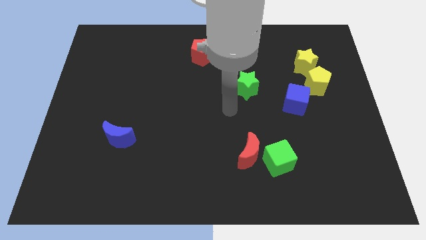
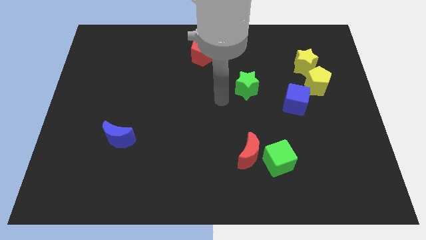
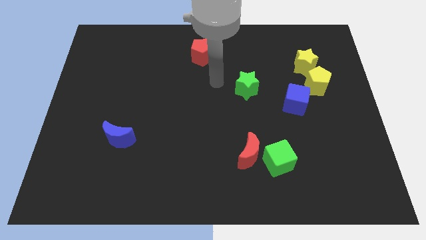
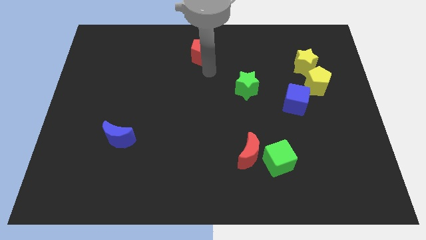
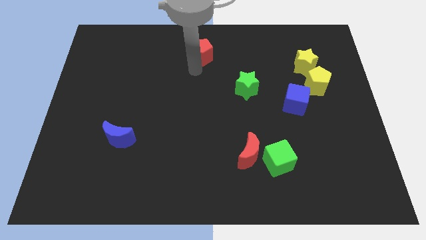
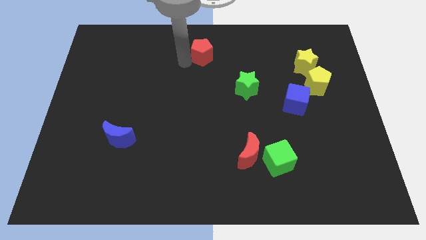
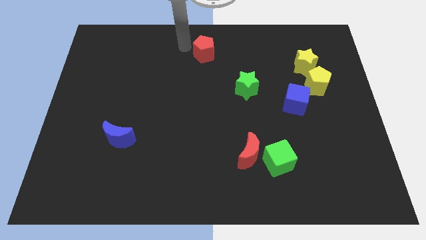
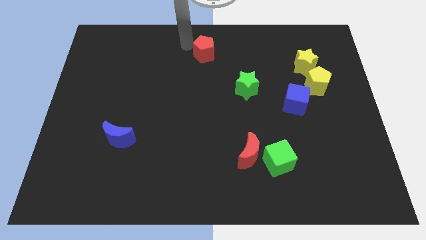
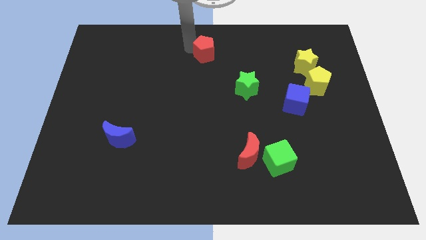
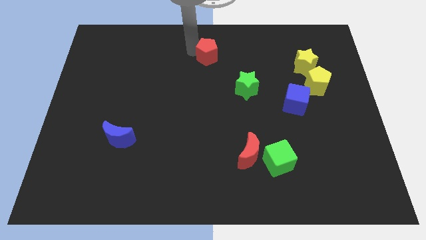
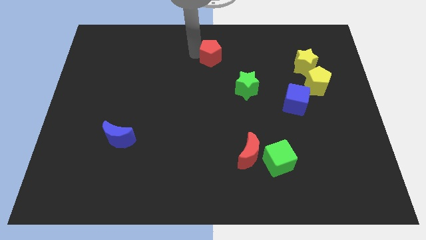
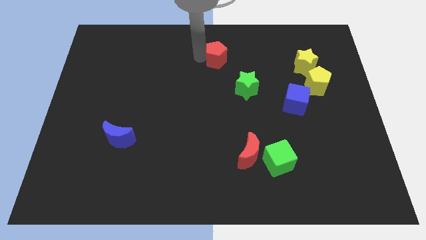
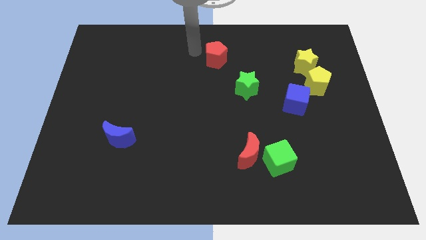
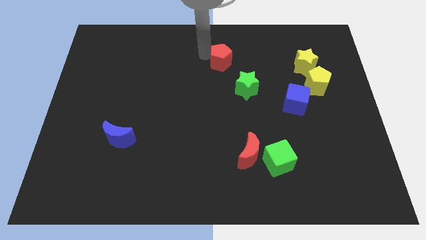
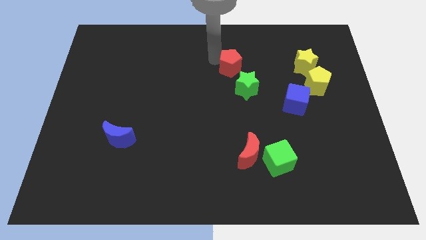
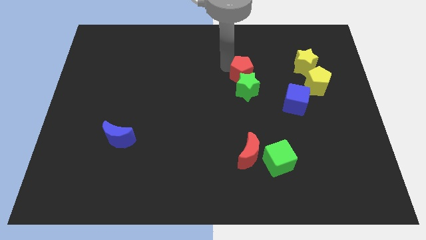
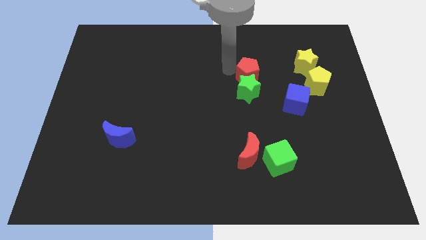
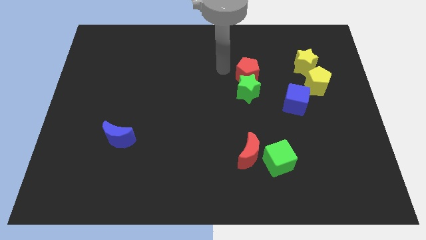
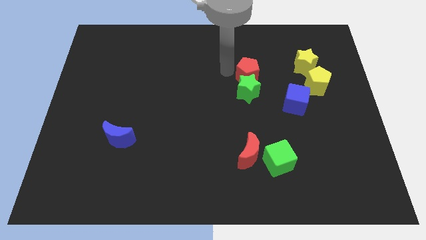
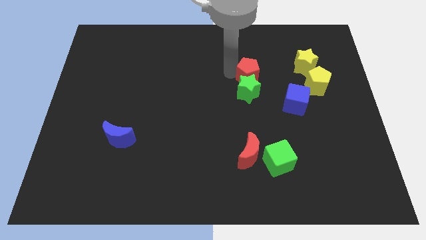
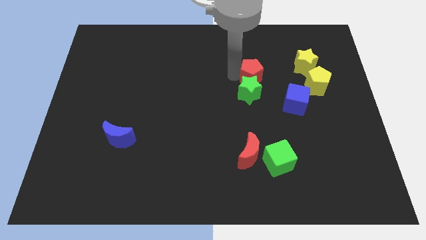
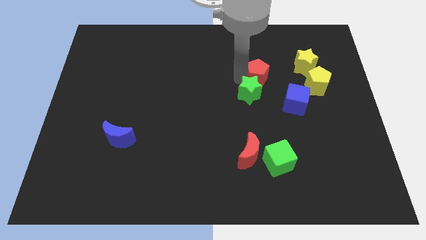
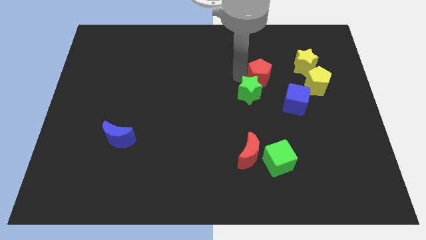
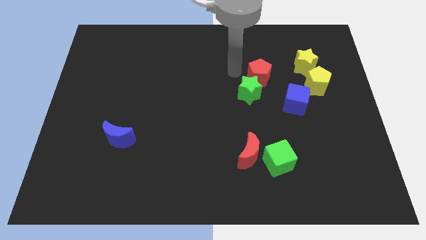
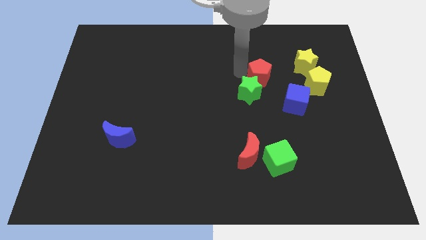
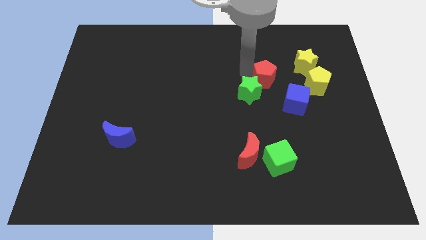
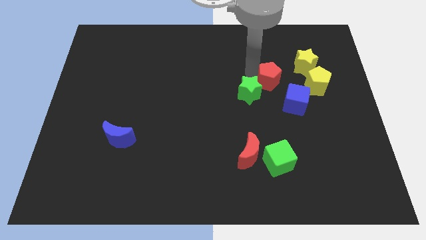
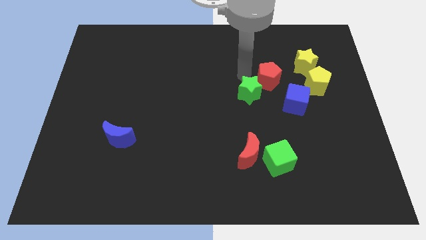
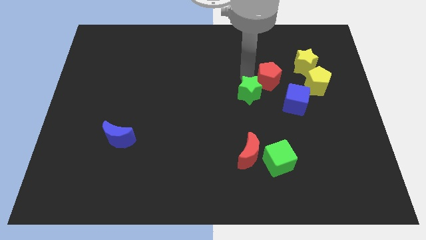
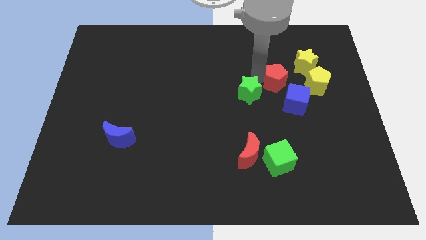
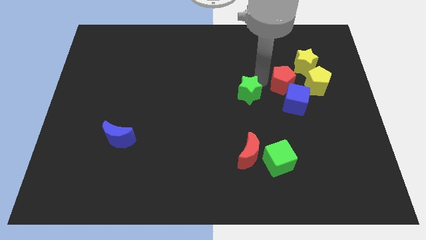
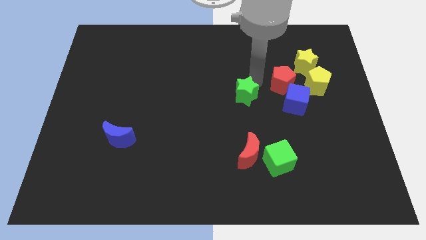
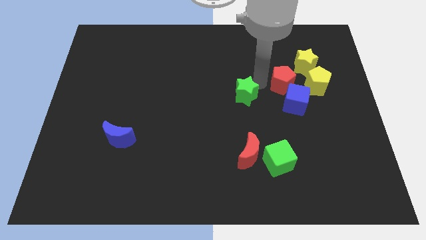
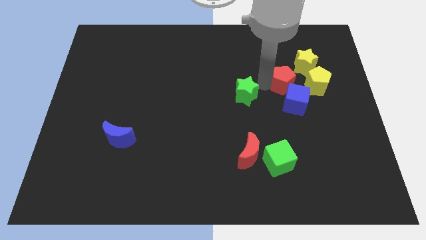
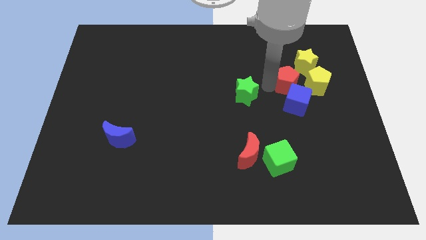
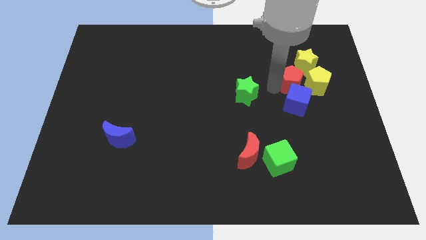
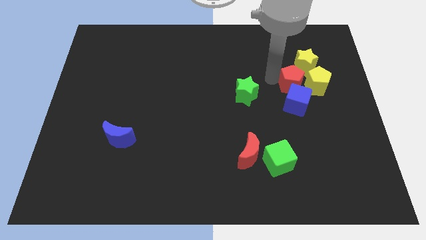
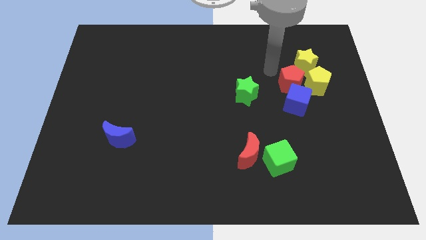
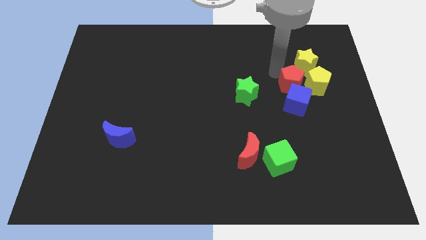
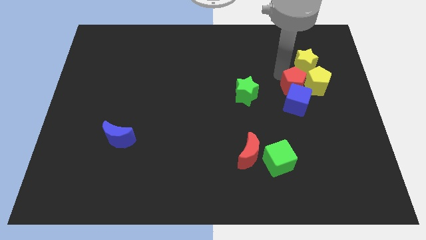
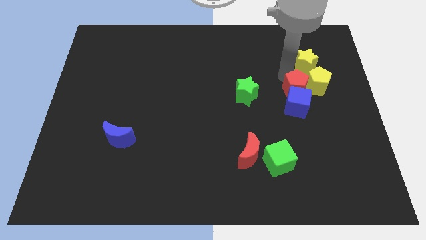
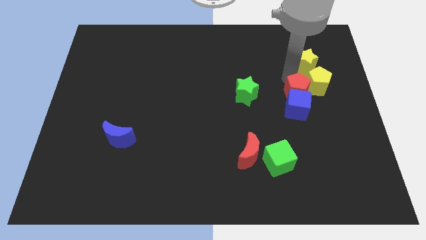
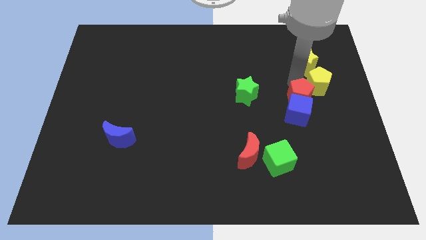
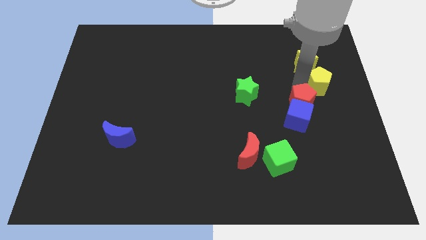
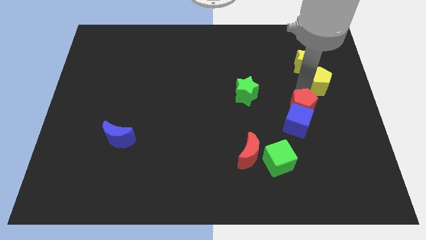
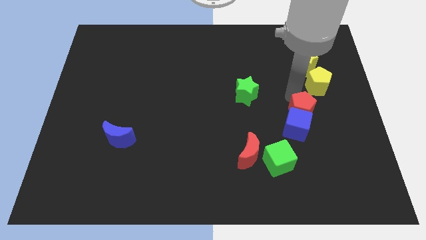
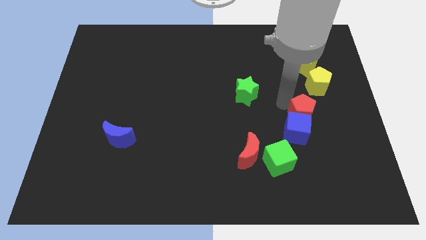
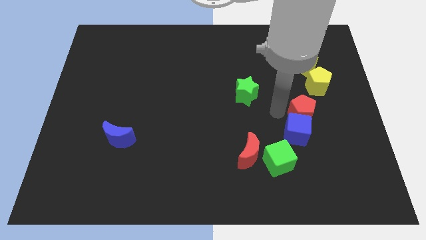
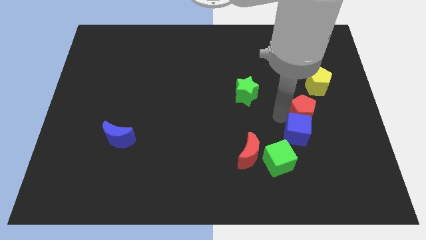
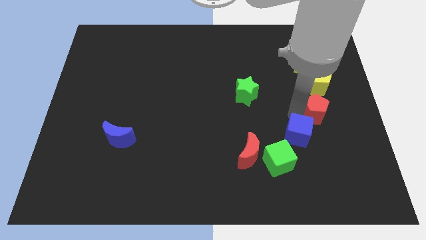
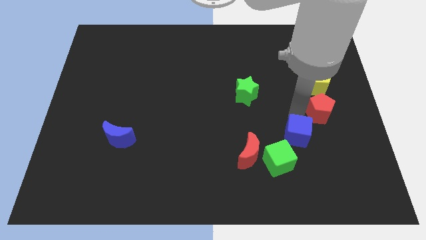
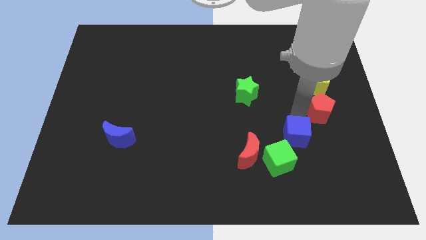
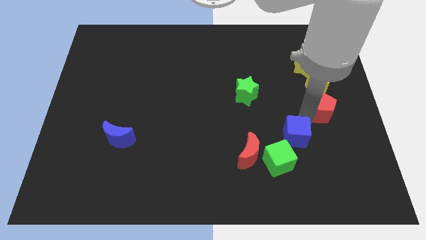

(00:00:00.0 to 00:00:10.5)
move the red pentagon to the right side of the board

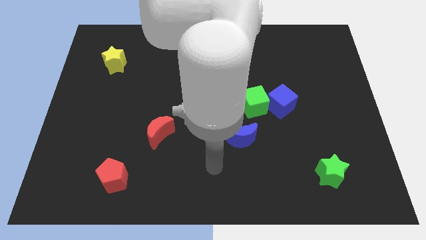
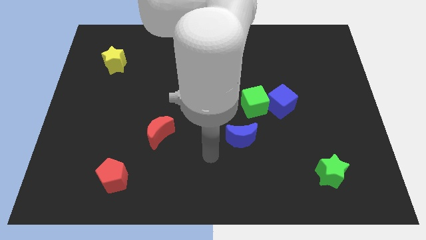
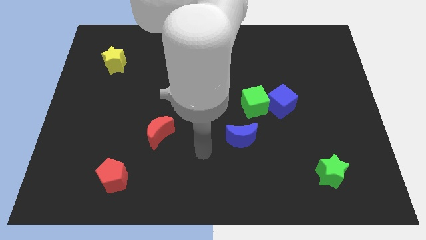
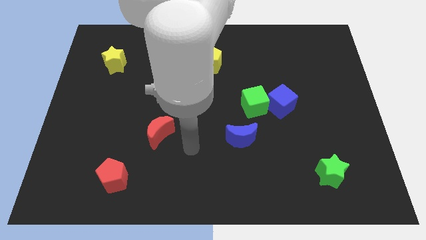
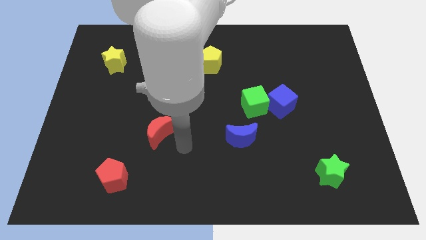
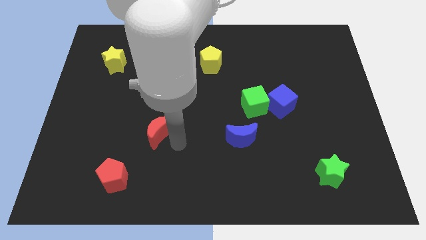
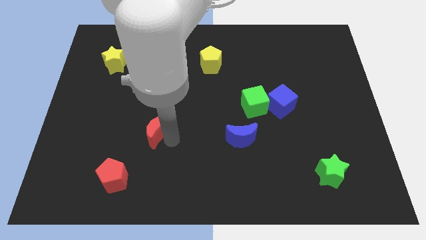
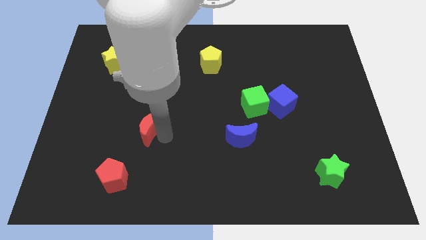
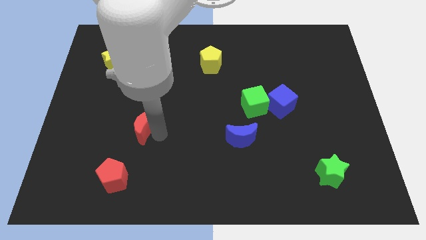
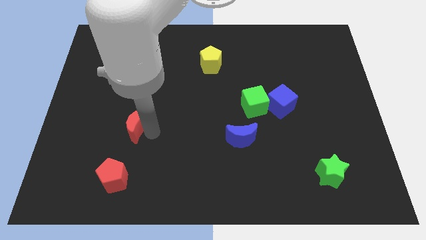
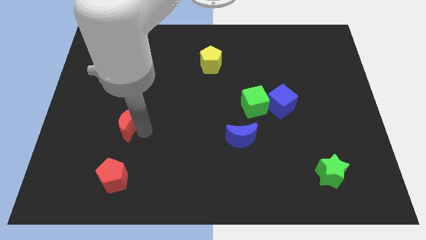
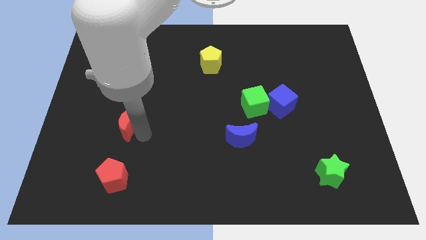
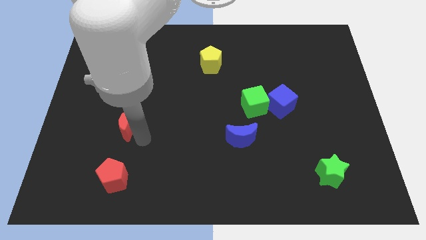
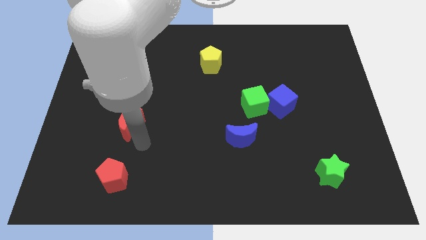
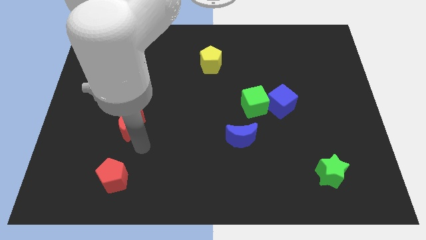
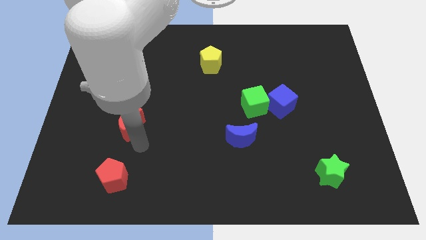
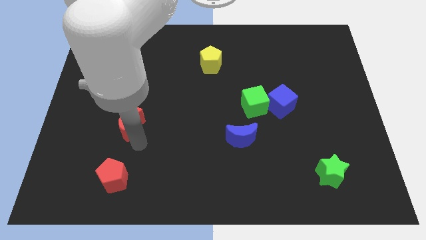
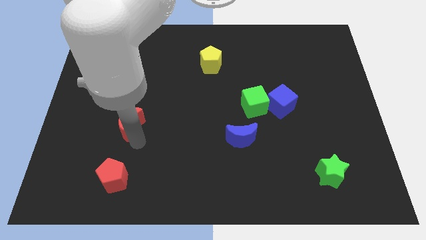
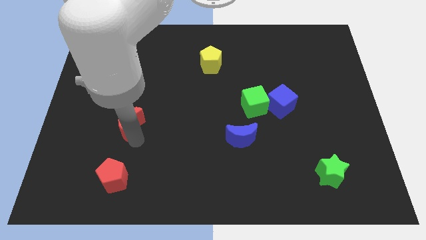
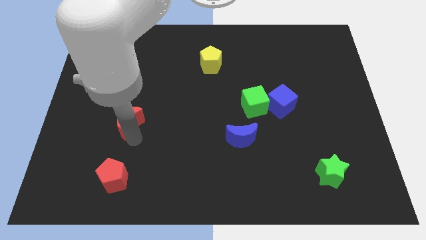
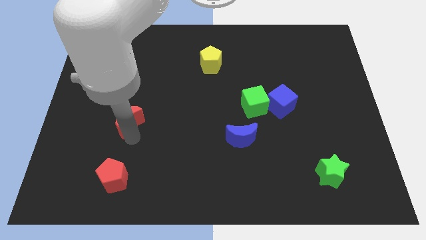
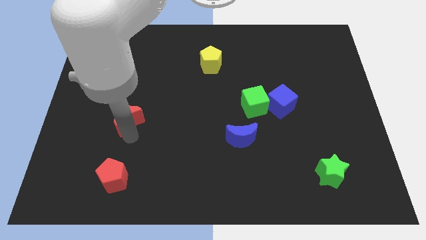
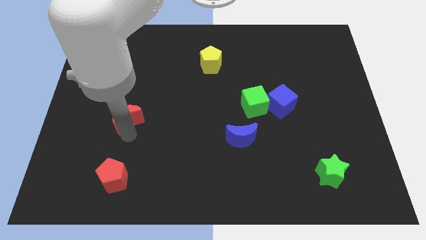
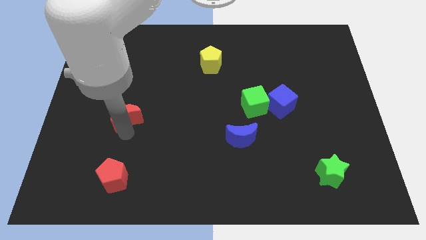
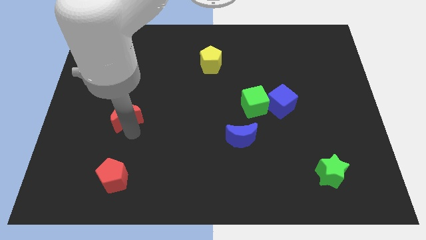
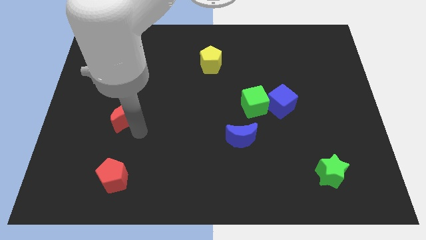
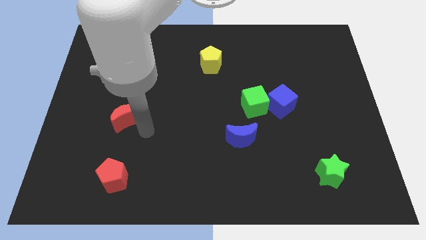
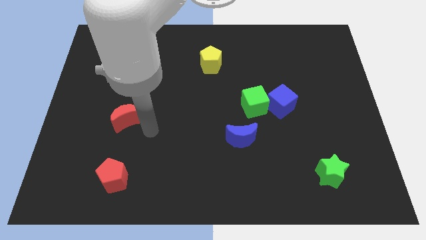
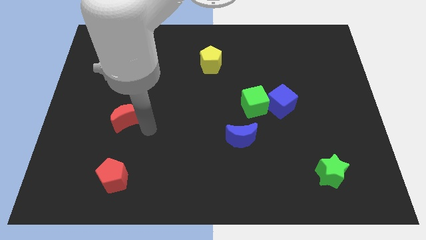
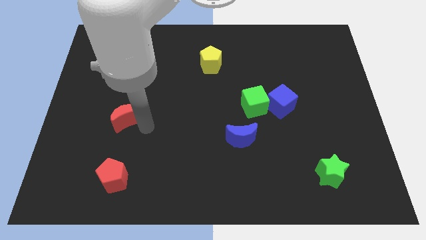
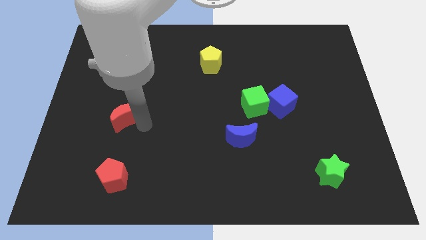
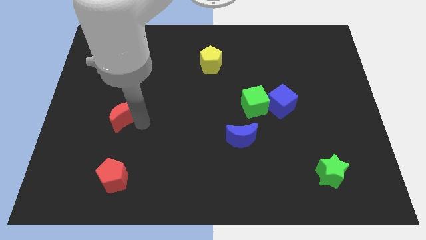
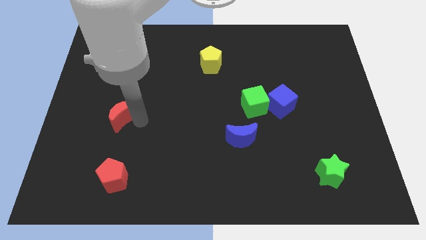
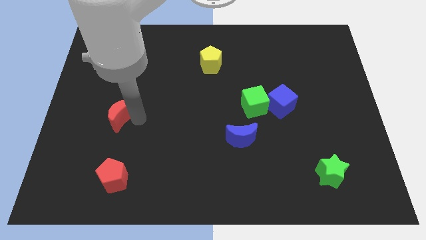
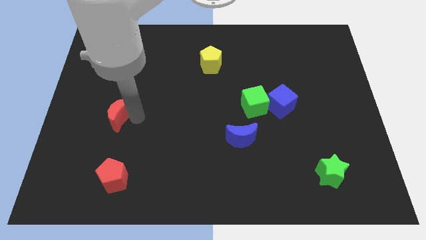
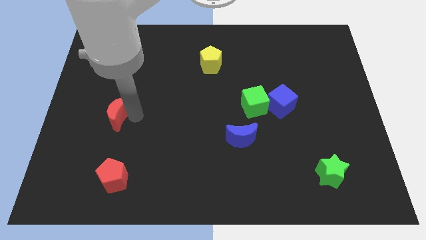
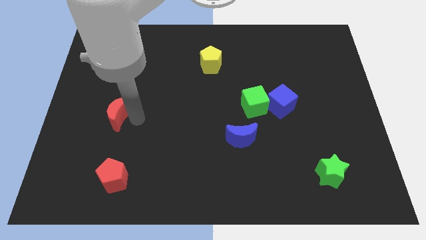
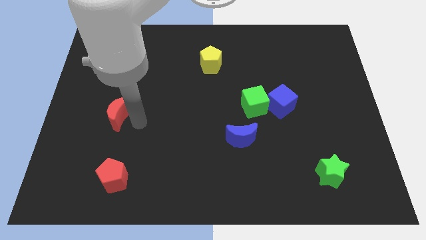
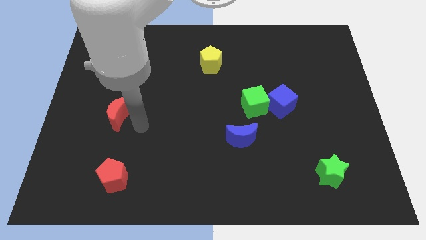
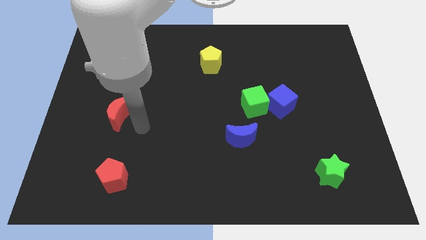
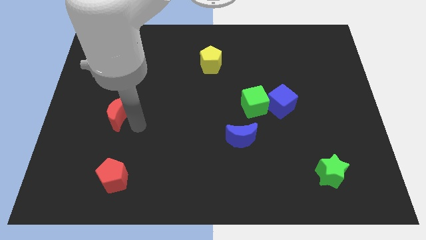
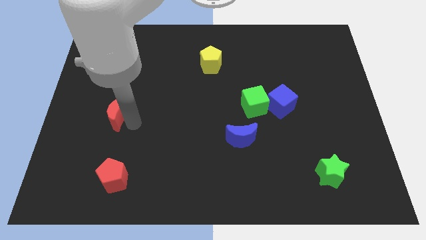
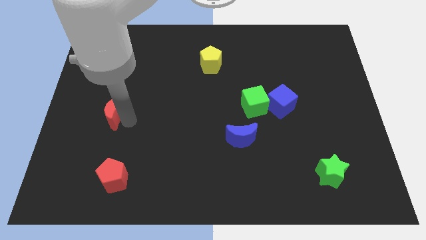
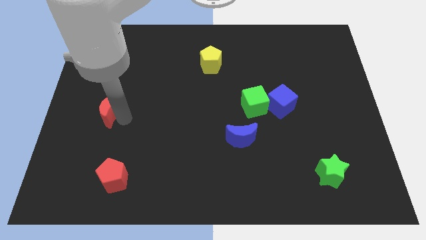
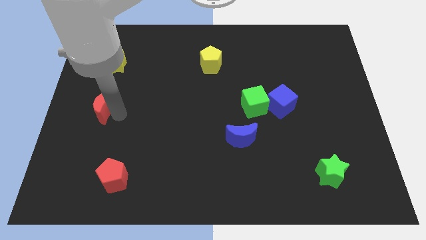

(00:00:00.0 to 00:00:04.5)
push the red moon to the left side of the board
